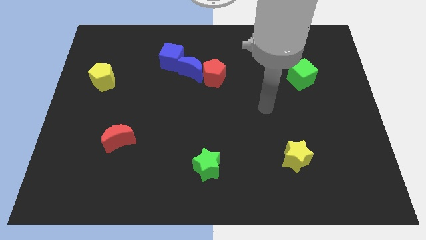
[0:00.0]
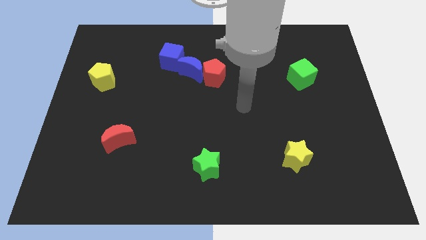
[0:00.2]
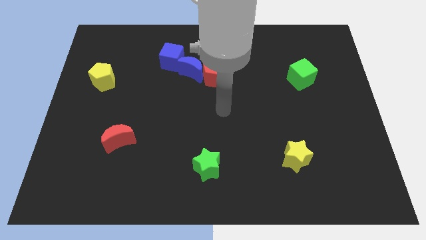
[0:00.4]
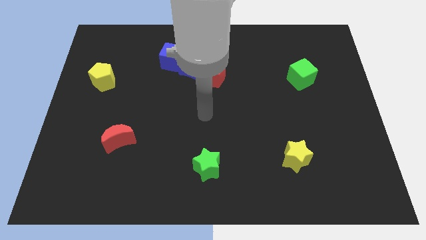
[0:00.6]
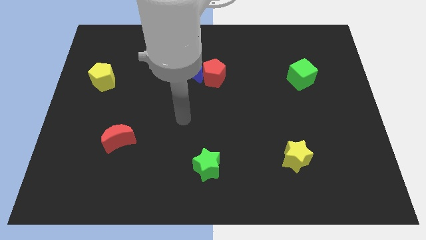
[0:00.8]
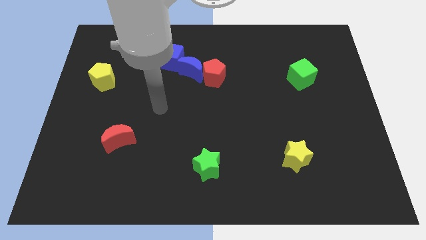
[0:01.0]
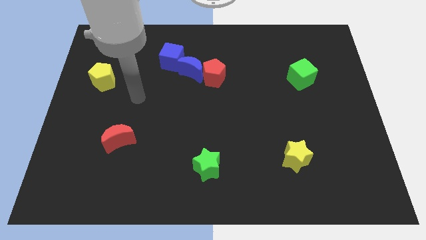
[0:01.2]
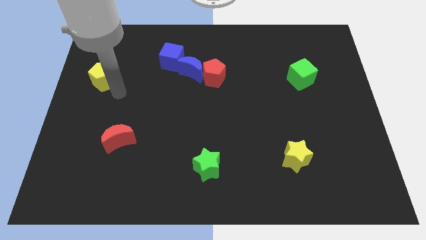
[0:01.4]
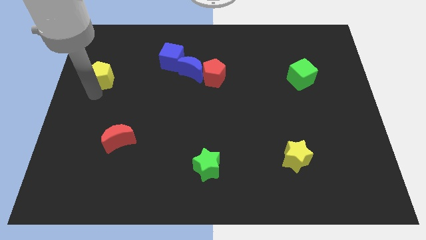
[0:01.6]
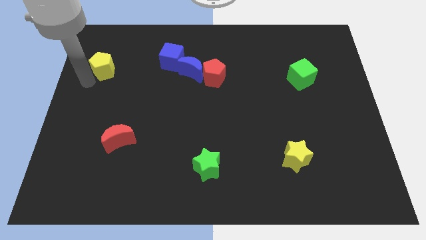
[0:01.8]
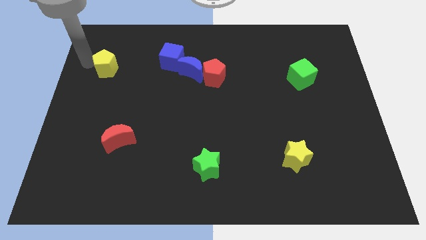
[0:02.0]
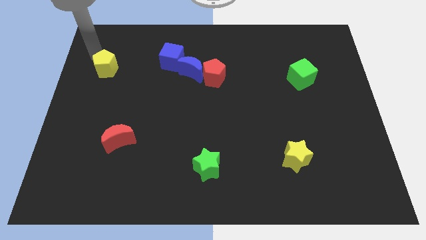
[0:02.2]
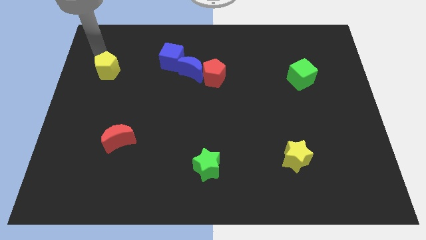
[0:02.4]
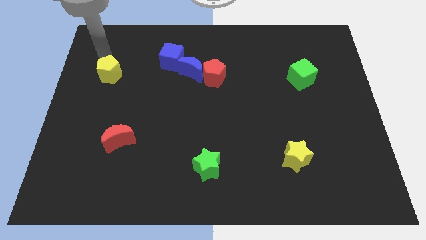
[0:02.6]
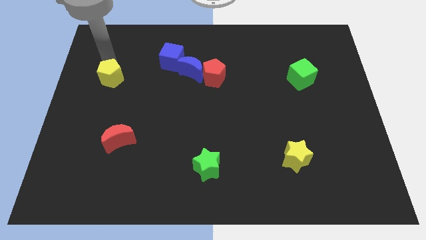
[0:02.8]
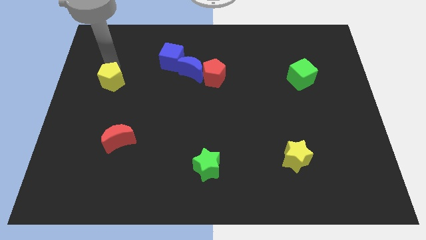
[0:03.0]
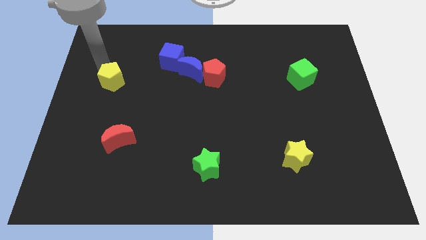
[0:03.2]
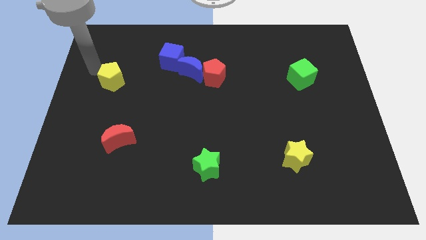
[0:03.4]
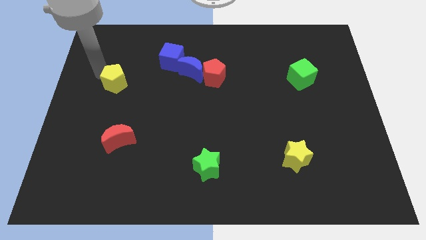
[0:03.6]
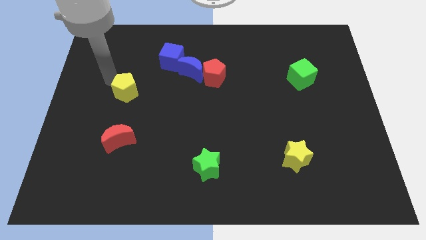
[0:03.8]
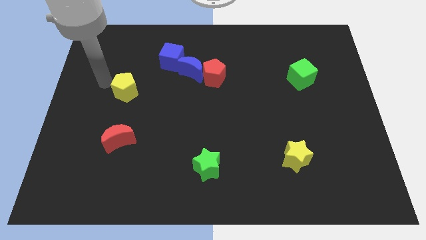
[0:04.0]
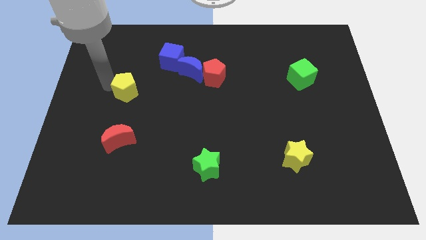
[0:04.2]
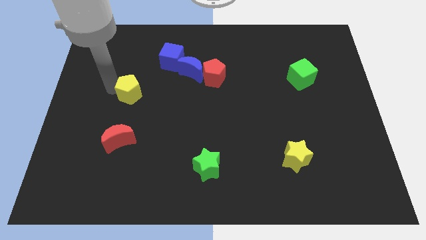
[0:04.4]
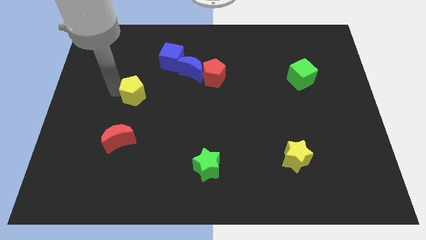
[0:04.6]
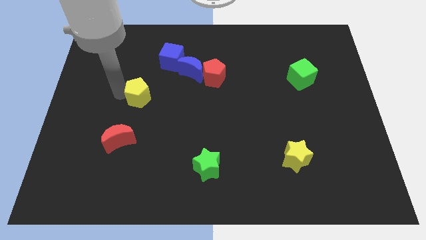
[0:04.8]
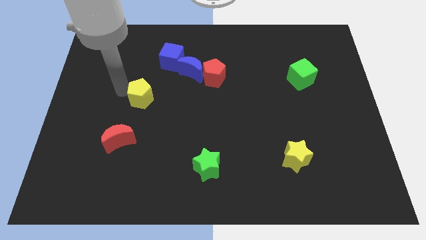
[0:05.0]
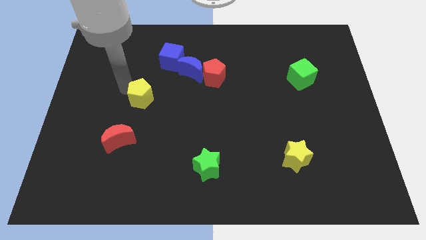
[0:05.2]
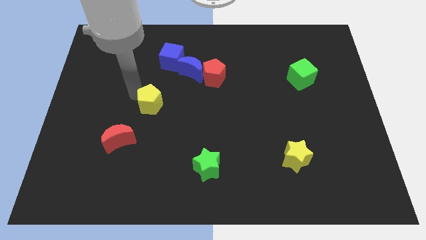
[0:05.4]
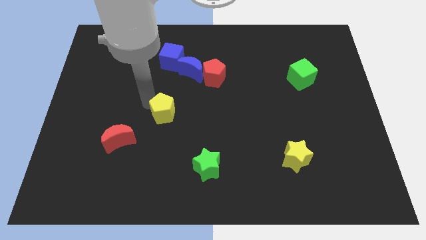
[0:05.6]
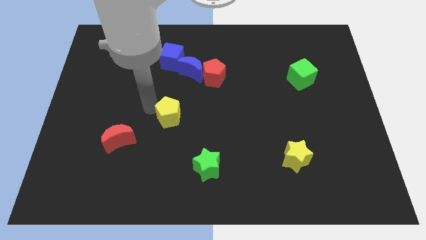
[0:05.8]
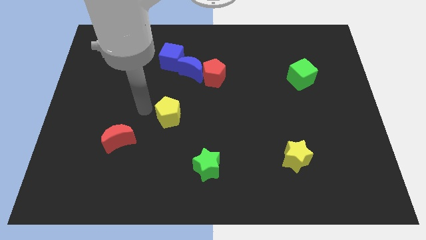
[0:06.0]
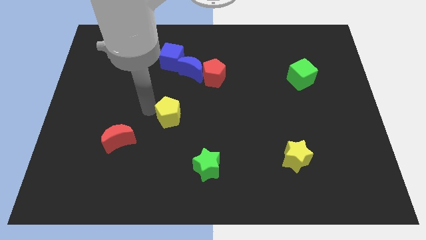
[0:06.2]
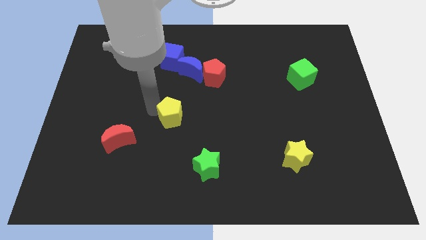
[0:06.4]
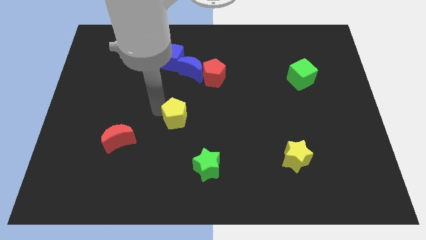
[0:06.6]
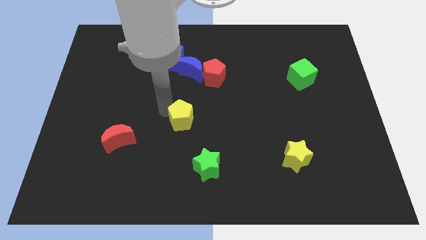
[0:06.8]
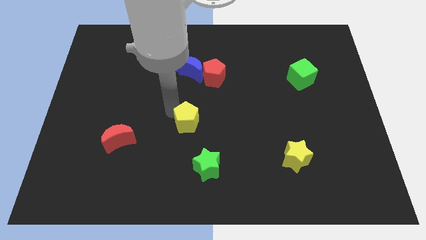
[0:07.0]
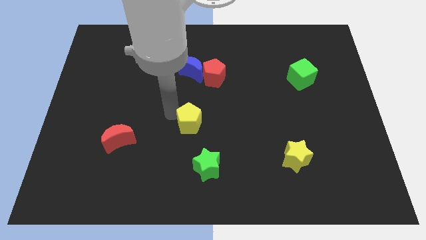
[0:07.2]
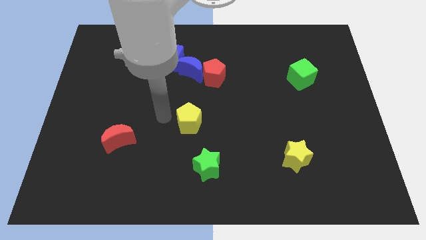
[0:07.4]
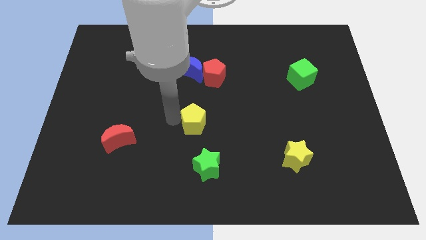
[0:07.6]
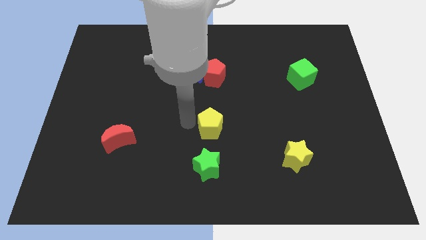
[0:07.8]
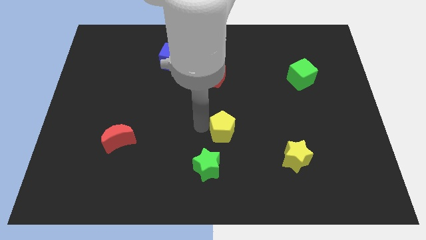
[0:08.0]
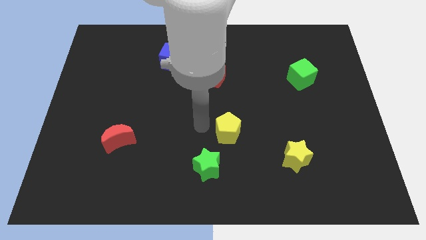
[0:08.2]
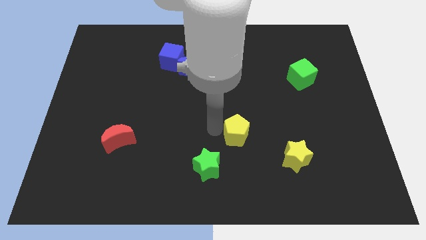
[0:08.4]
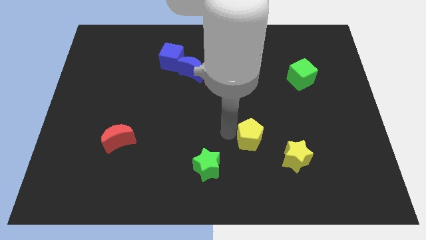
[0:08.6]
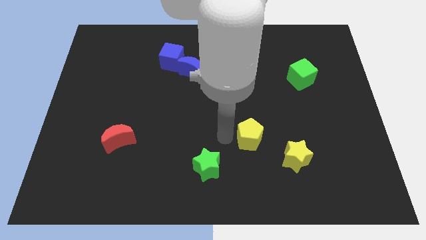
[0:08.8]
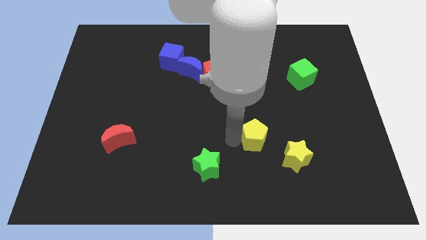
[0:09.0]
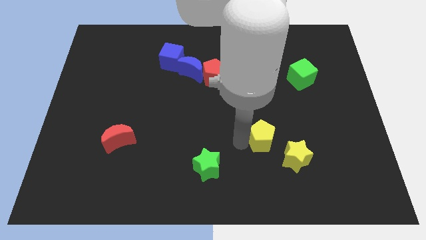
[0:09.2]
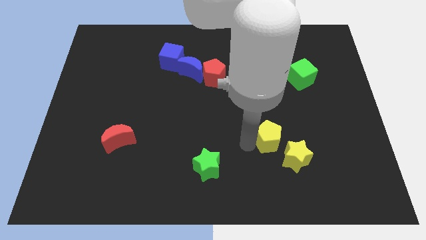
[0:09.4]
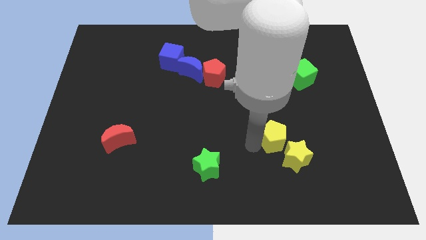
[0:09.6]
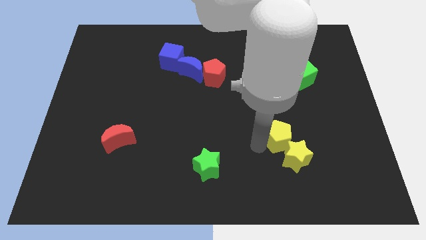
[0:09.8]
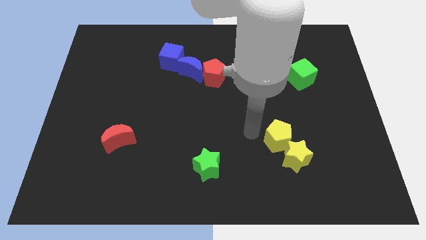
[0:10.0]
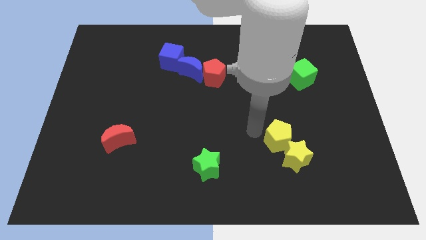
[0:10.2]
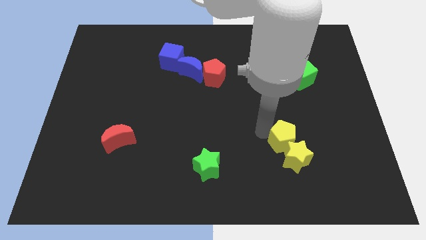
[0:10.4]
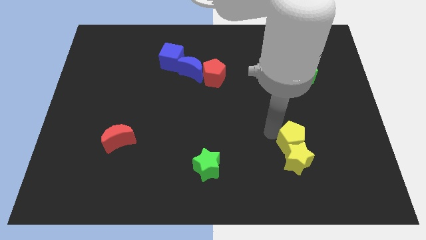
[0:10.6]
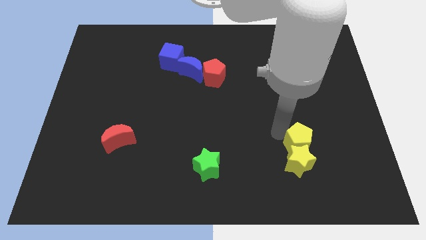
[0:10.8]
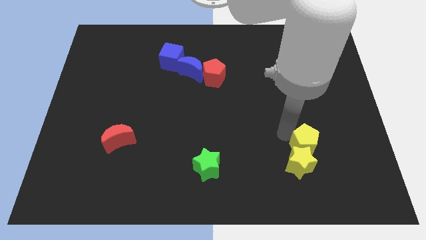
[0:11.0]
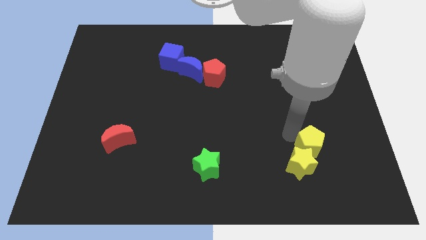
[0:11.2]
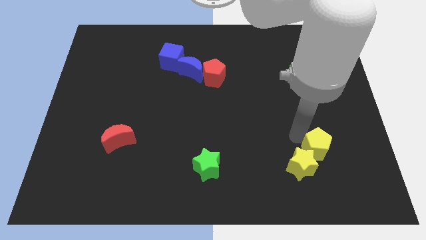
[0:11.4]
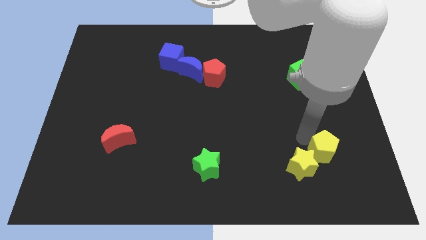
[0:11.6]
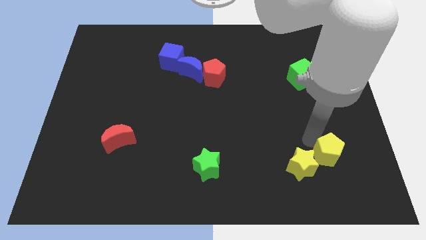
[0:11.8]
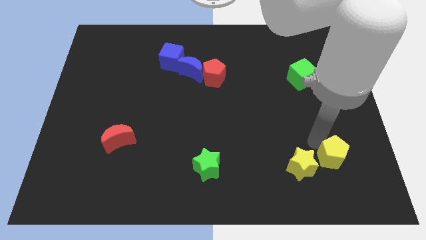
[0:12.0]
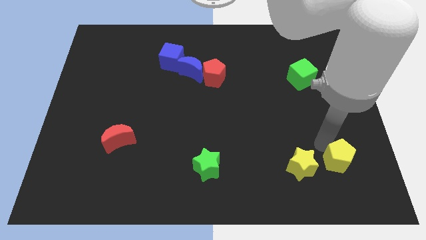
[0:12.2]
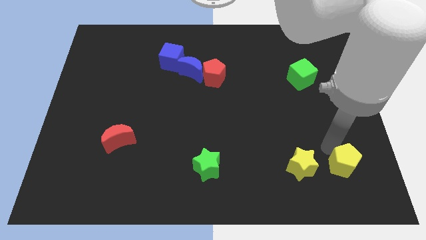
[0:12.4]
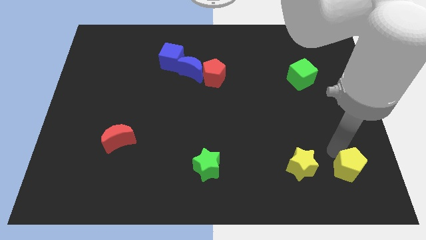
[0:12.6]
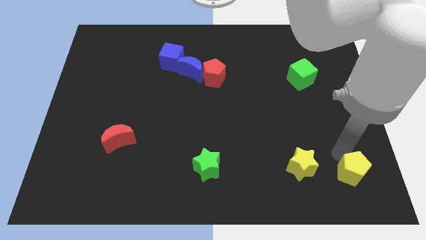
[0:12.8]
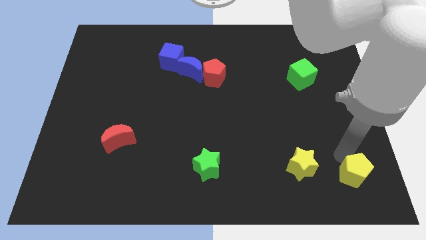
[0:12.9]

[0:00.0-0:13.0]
slide the yellow pentagon to the bottom right
